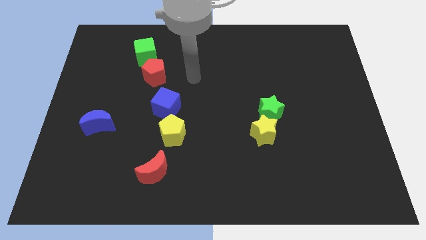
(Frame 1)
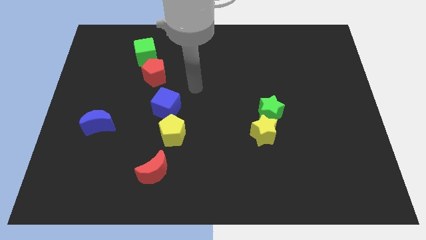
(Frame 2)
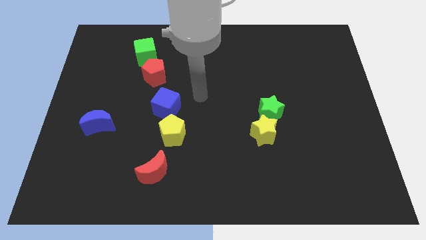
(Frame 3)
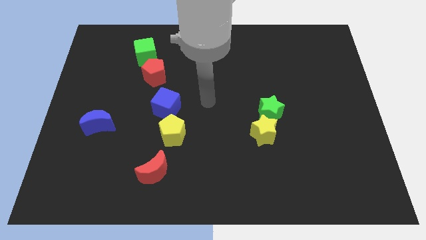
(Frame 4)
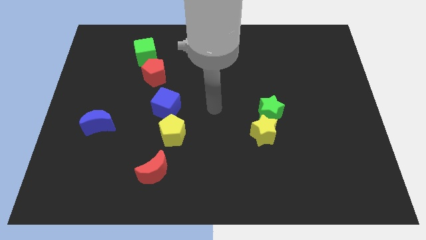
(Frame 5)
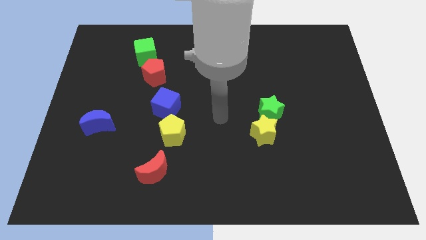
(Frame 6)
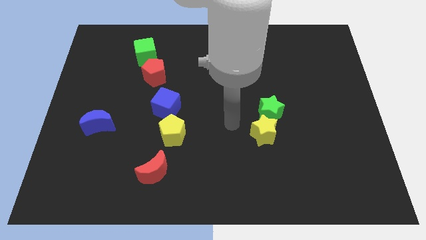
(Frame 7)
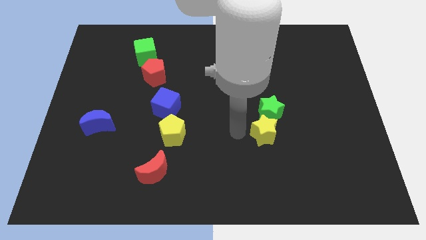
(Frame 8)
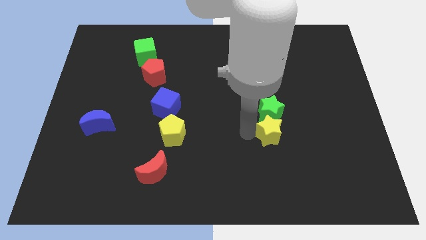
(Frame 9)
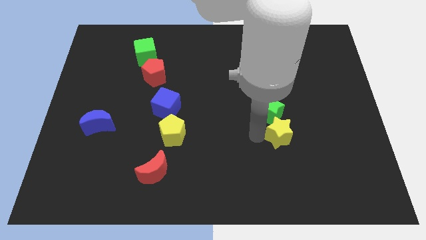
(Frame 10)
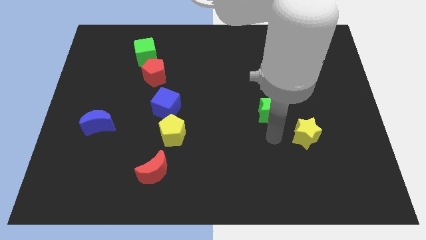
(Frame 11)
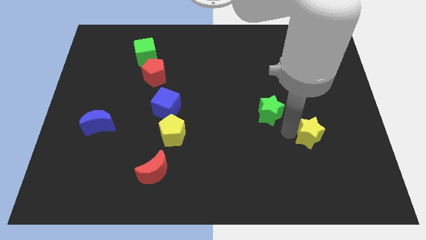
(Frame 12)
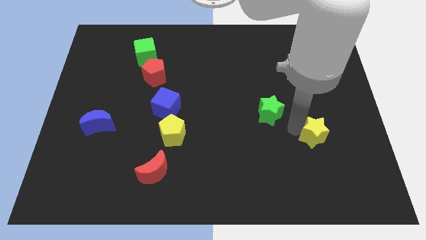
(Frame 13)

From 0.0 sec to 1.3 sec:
pull the green star apart from the yellow star

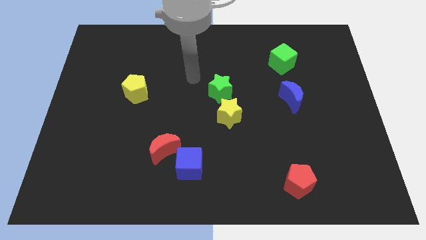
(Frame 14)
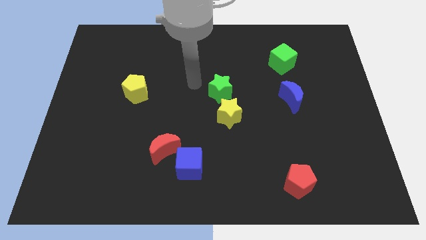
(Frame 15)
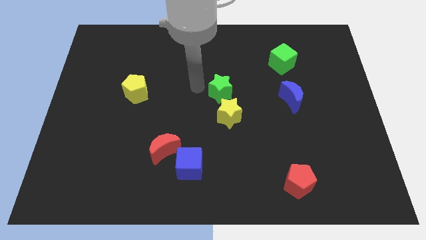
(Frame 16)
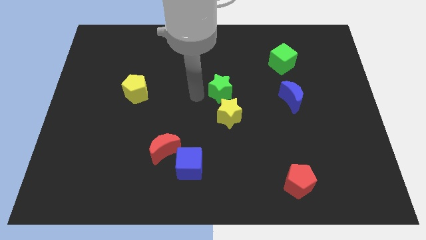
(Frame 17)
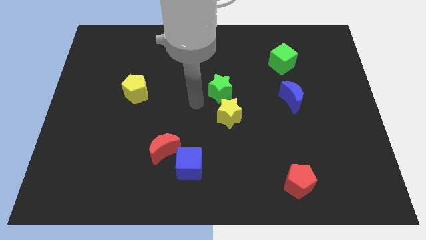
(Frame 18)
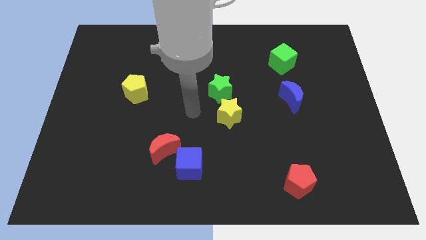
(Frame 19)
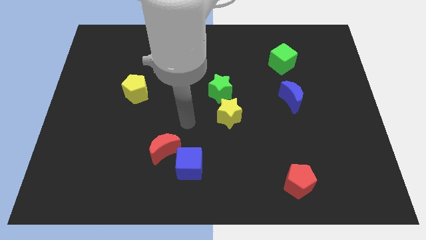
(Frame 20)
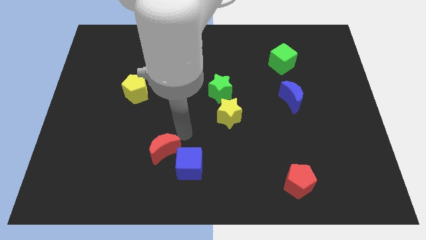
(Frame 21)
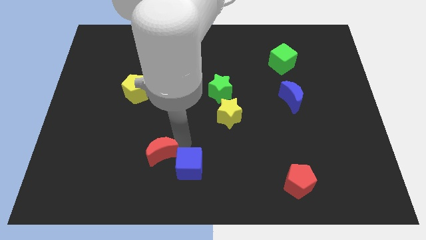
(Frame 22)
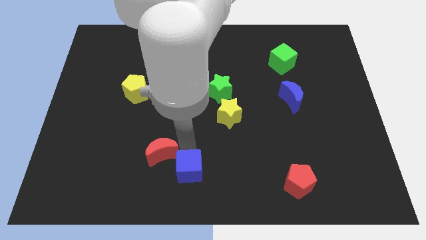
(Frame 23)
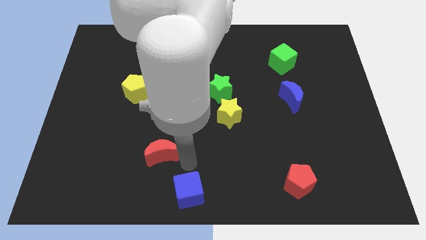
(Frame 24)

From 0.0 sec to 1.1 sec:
move the red moon away from the blue cube

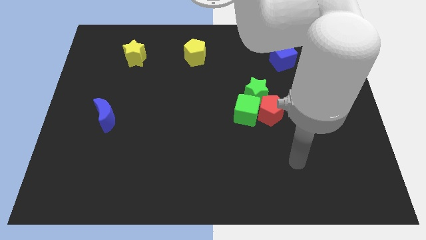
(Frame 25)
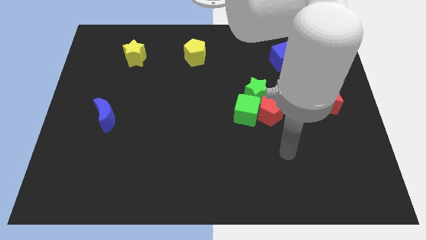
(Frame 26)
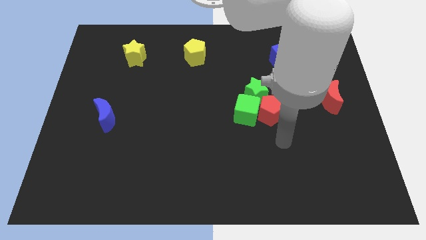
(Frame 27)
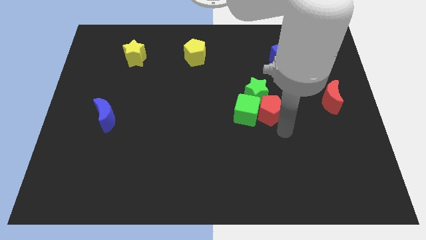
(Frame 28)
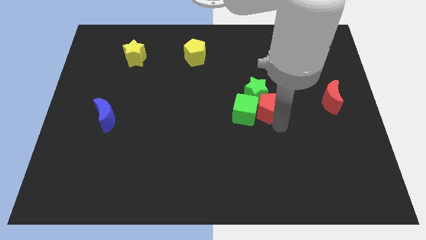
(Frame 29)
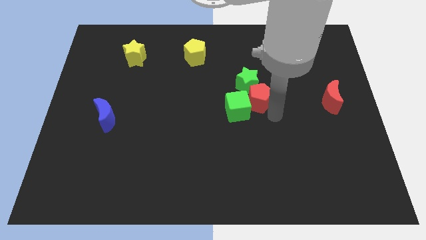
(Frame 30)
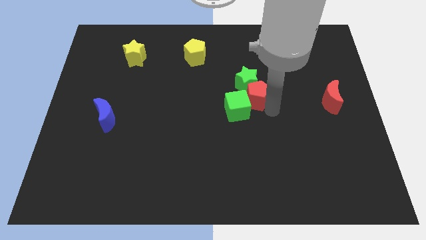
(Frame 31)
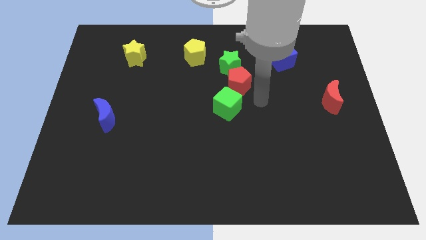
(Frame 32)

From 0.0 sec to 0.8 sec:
separate the green cube from the red pentagon and green star

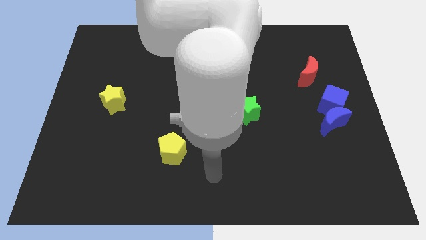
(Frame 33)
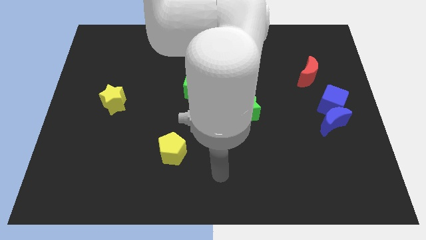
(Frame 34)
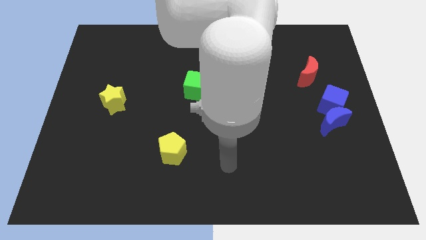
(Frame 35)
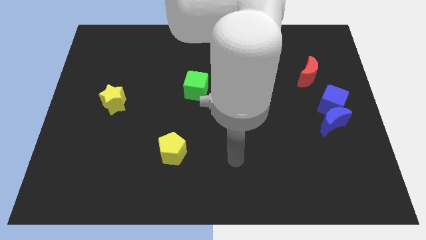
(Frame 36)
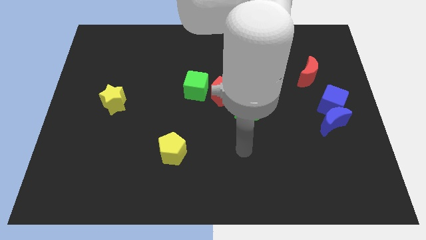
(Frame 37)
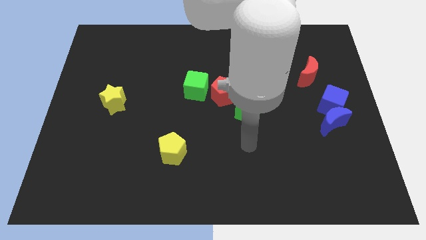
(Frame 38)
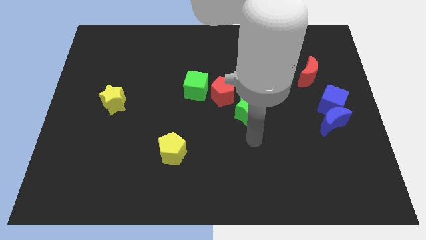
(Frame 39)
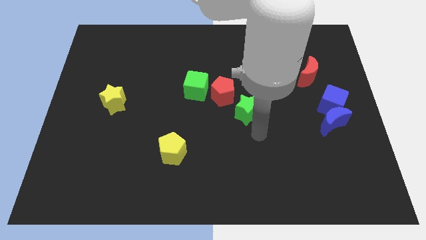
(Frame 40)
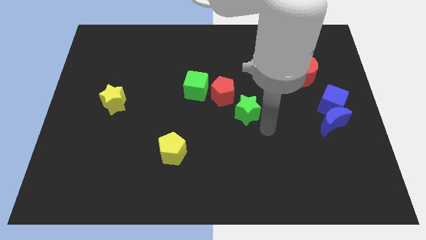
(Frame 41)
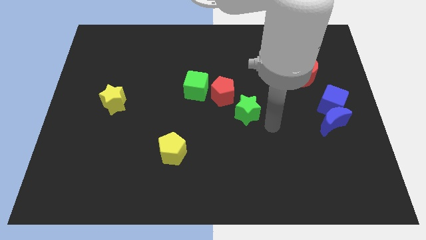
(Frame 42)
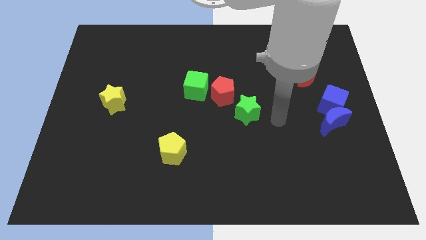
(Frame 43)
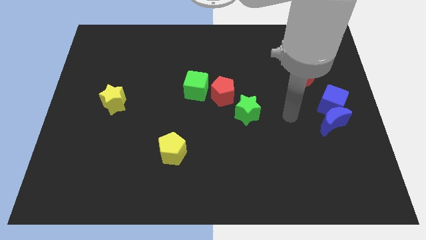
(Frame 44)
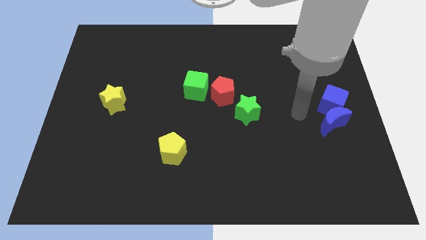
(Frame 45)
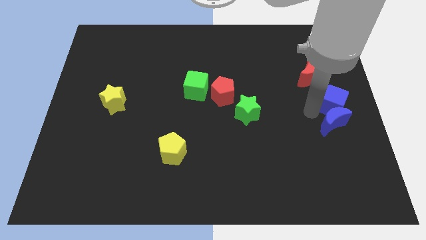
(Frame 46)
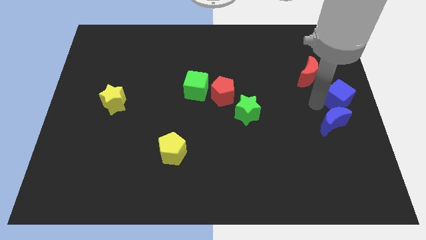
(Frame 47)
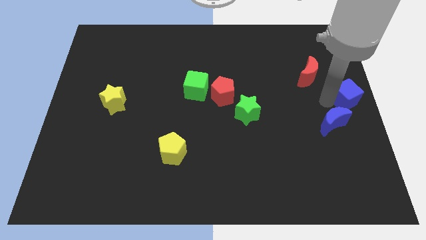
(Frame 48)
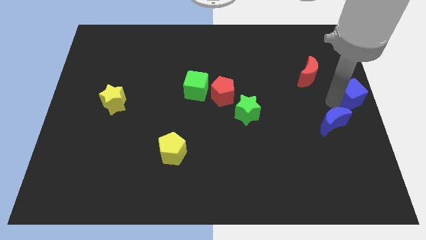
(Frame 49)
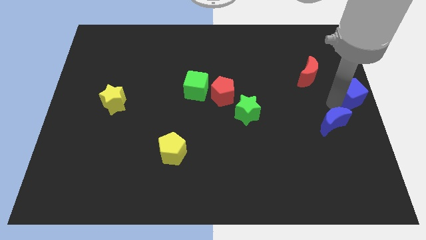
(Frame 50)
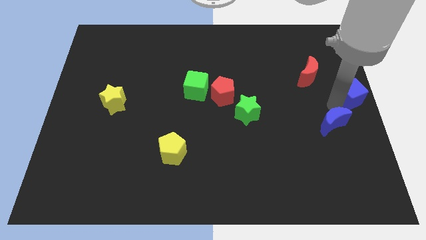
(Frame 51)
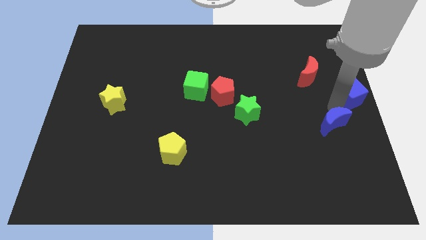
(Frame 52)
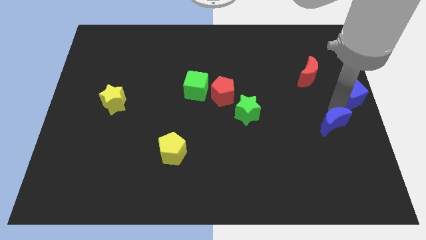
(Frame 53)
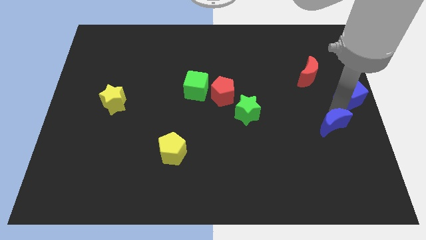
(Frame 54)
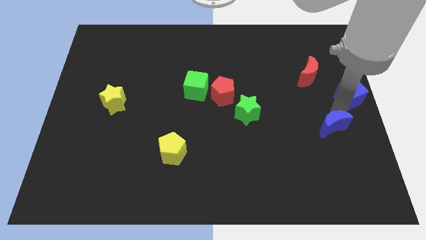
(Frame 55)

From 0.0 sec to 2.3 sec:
separate the blue moon from the blue cube

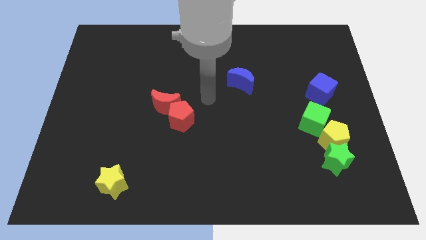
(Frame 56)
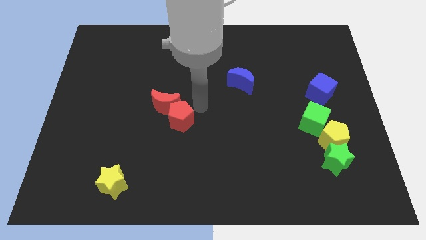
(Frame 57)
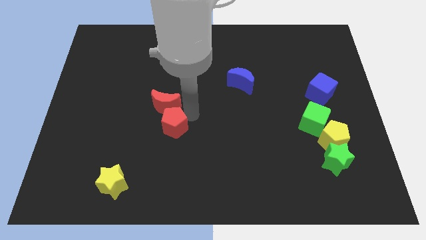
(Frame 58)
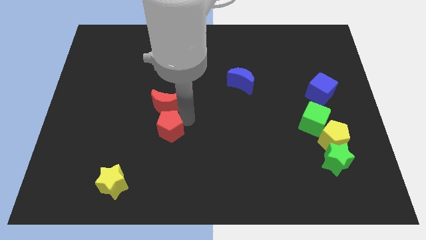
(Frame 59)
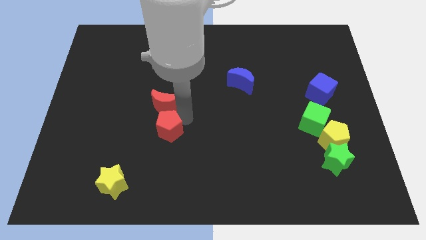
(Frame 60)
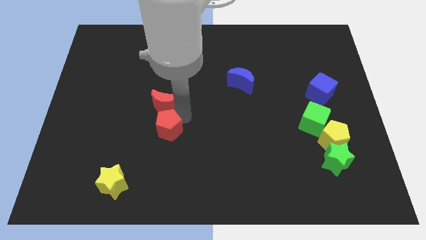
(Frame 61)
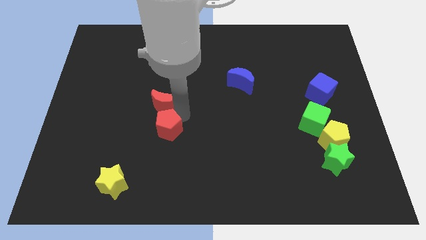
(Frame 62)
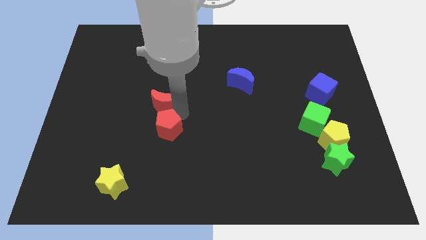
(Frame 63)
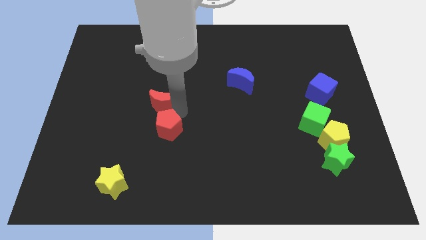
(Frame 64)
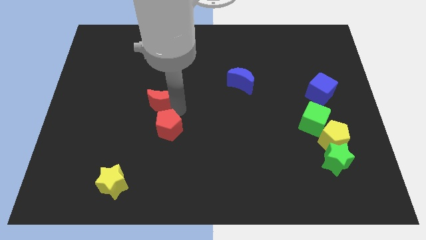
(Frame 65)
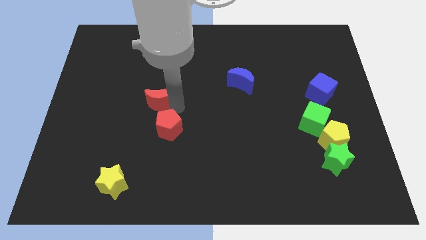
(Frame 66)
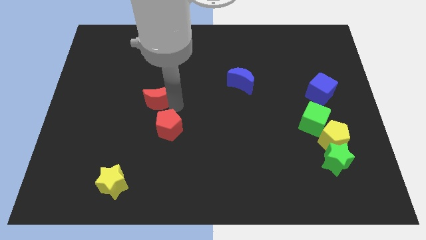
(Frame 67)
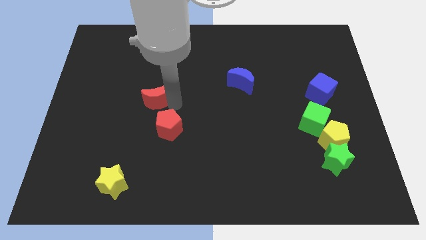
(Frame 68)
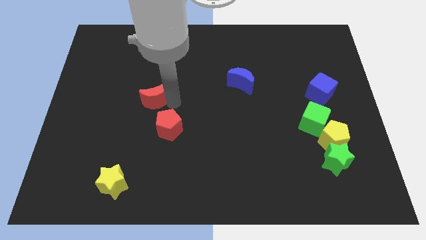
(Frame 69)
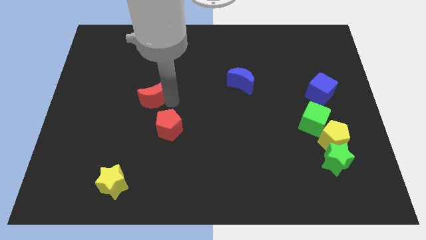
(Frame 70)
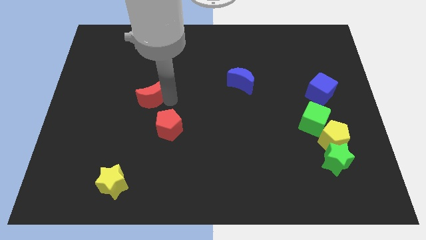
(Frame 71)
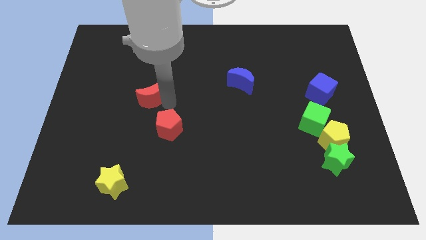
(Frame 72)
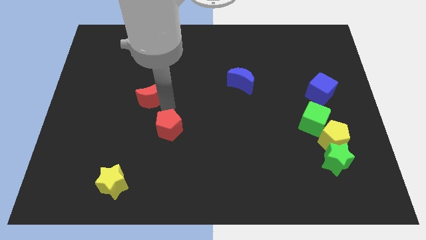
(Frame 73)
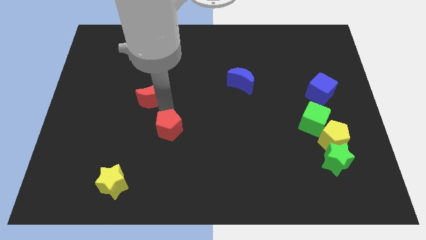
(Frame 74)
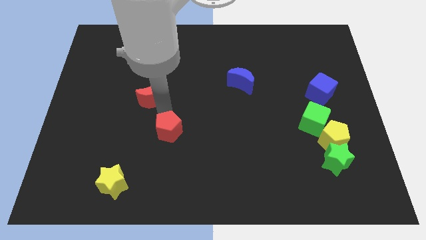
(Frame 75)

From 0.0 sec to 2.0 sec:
separate the red moon from the red pentagon

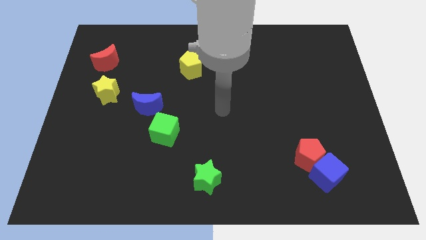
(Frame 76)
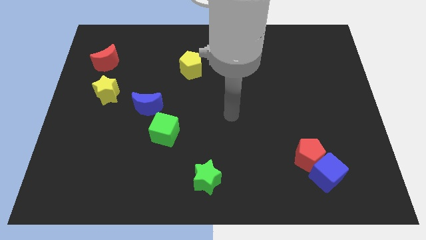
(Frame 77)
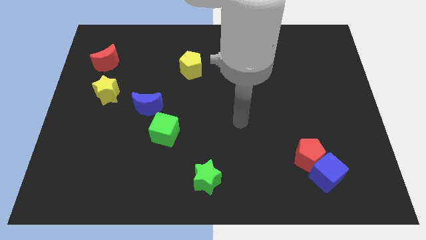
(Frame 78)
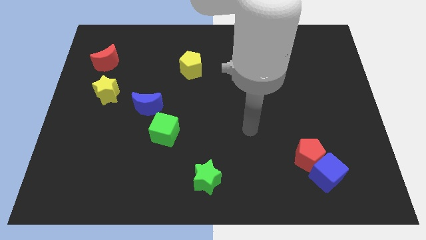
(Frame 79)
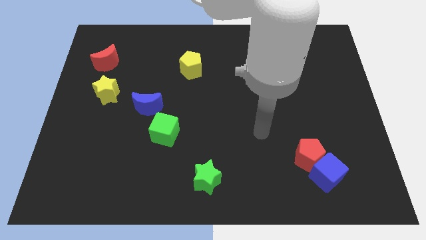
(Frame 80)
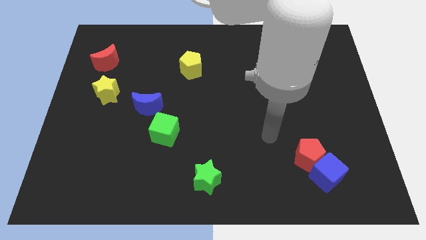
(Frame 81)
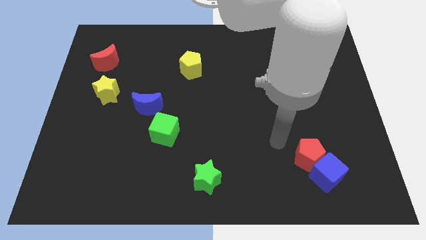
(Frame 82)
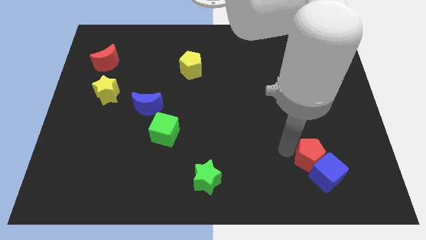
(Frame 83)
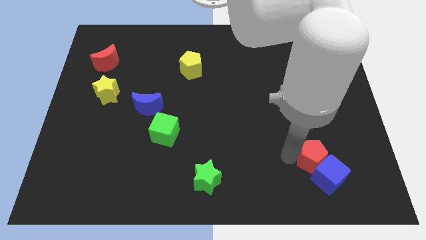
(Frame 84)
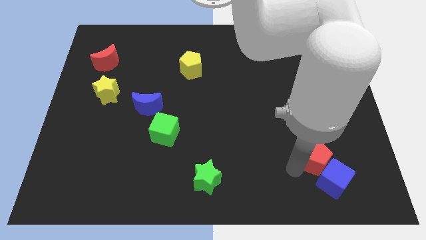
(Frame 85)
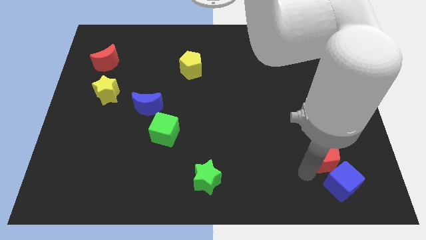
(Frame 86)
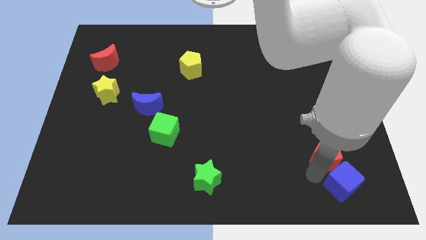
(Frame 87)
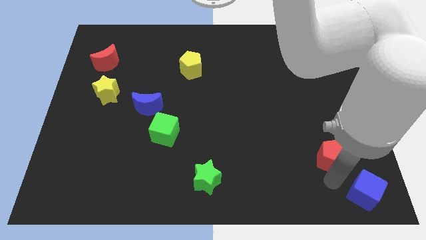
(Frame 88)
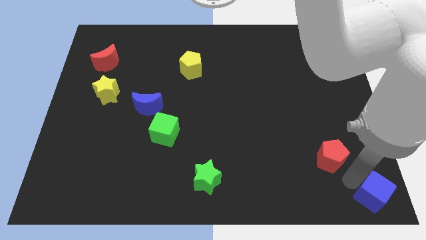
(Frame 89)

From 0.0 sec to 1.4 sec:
pull the red pentagon apart from the blue cube

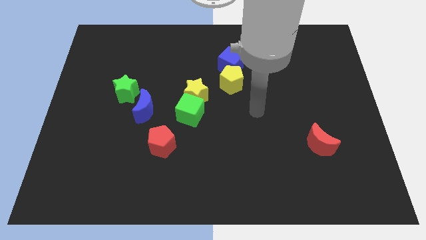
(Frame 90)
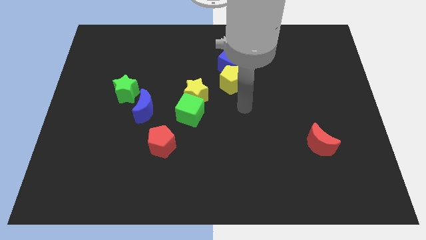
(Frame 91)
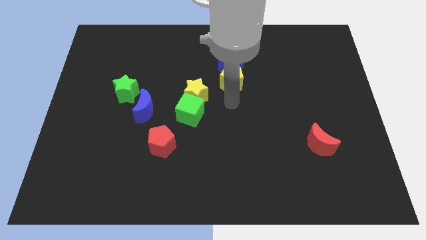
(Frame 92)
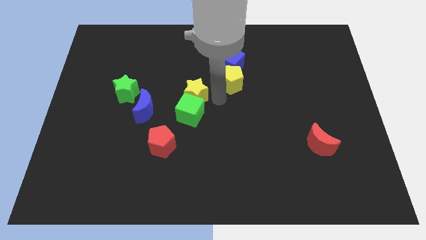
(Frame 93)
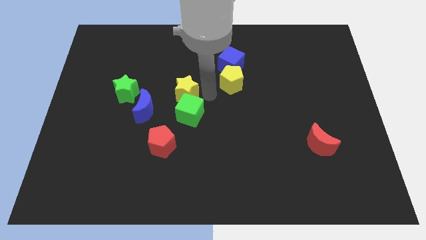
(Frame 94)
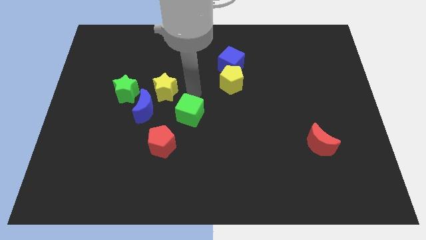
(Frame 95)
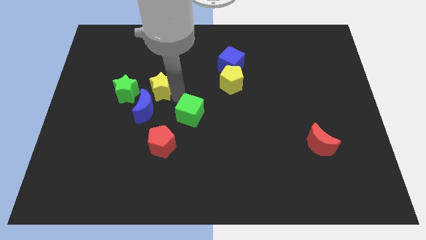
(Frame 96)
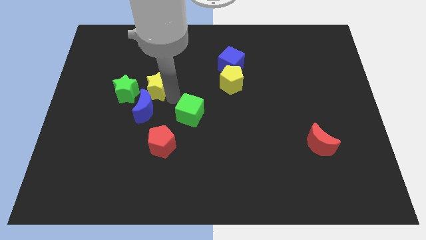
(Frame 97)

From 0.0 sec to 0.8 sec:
move the green cube away from the yellow star
